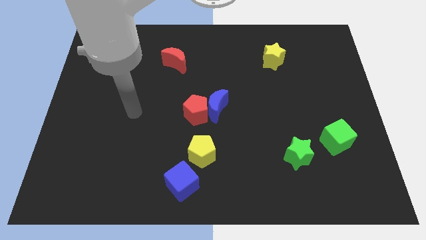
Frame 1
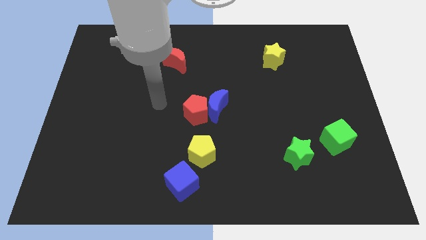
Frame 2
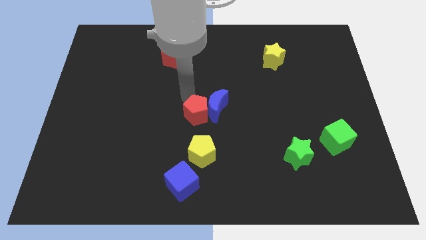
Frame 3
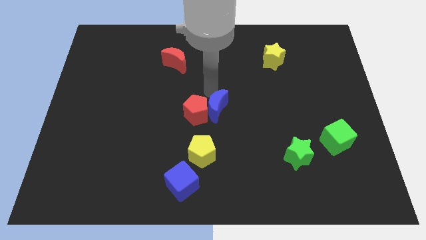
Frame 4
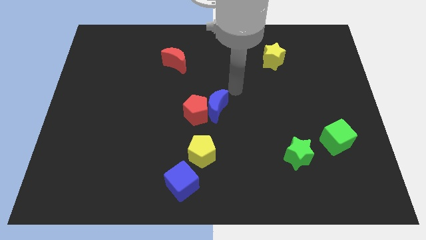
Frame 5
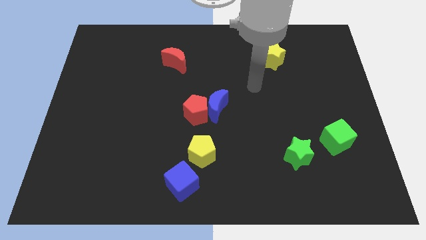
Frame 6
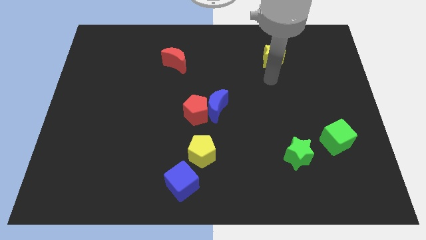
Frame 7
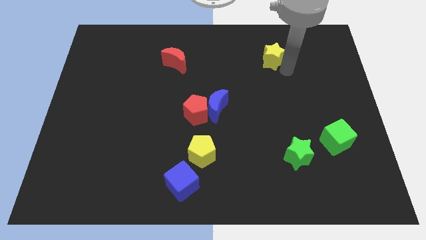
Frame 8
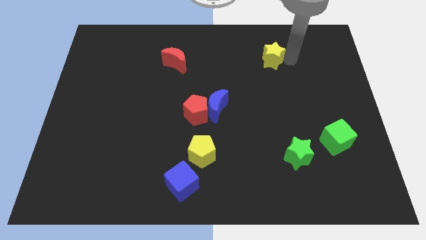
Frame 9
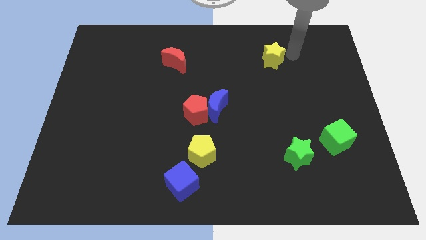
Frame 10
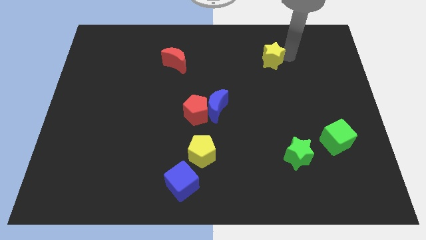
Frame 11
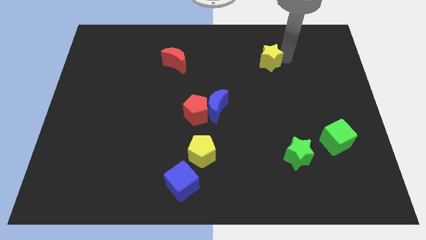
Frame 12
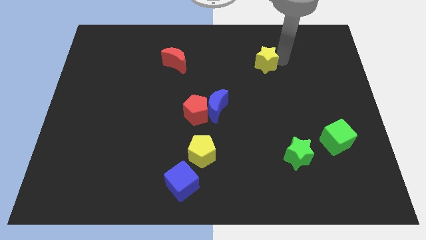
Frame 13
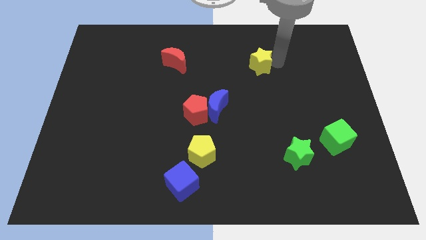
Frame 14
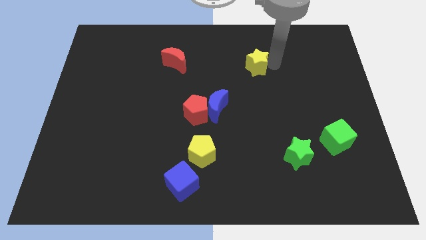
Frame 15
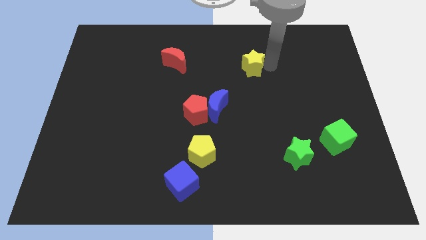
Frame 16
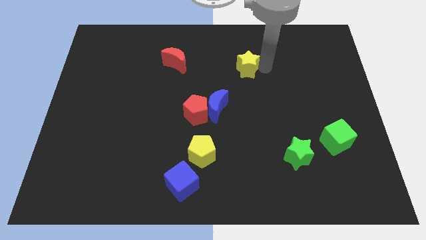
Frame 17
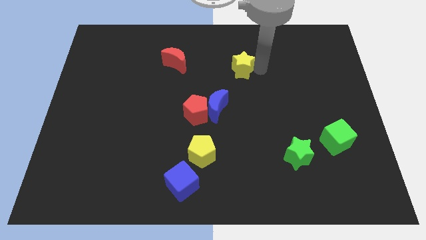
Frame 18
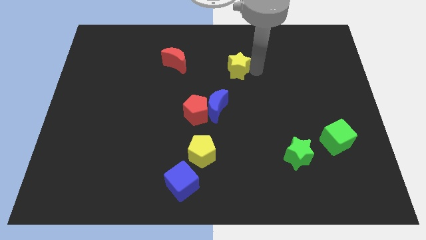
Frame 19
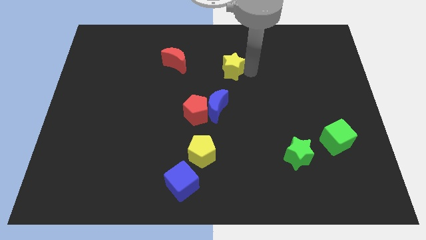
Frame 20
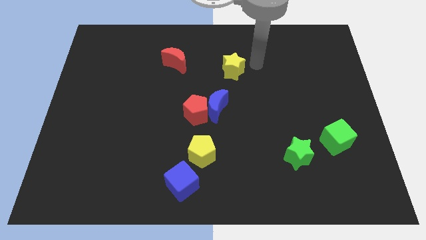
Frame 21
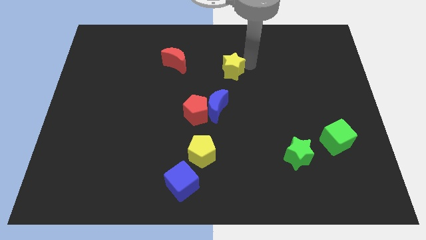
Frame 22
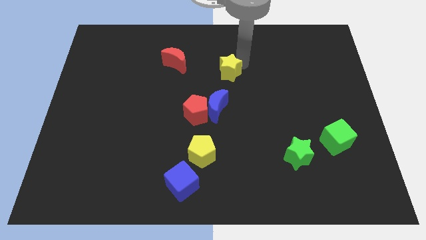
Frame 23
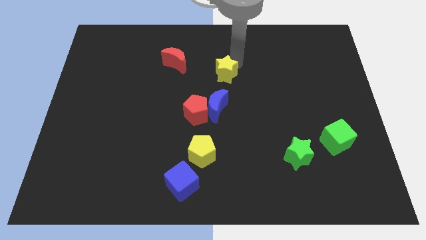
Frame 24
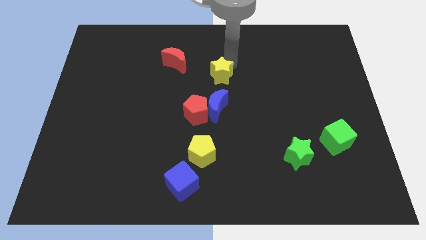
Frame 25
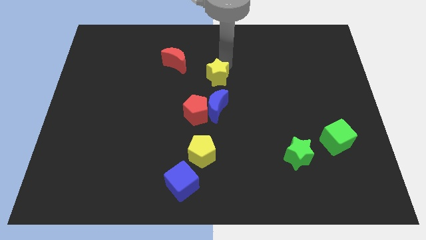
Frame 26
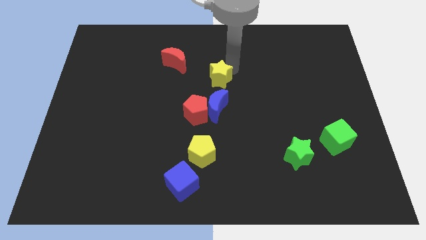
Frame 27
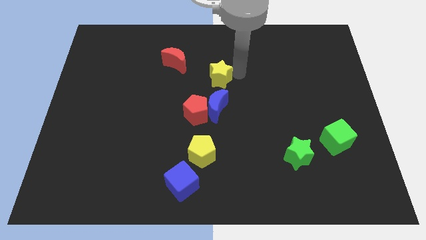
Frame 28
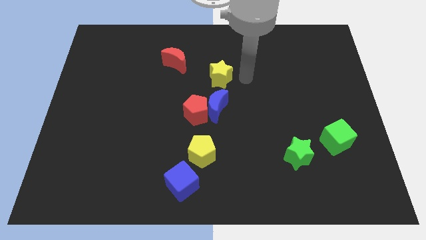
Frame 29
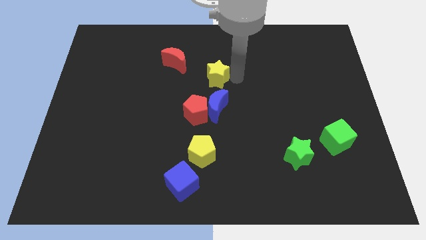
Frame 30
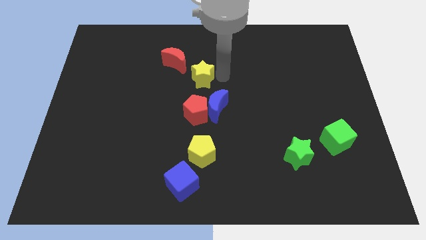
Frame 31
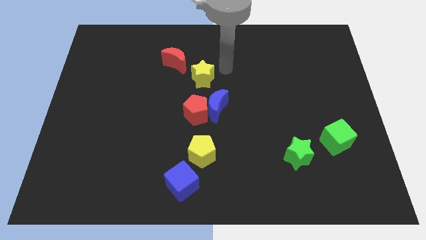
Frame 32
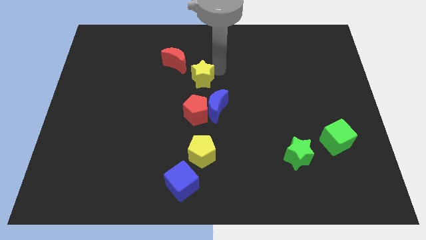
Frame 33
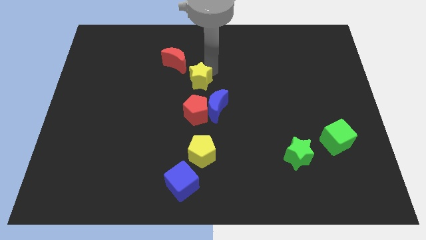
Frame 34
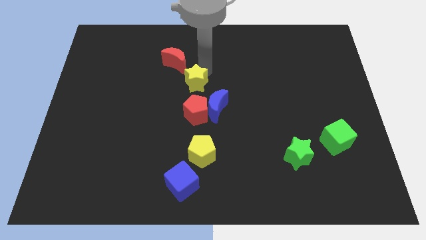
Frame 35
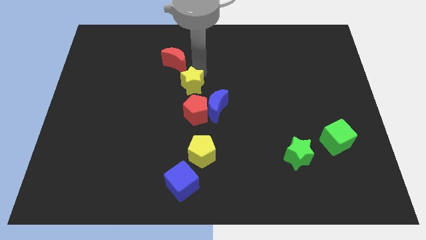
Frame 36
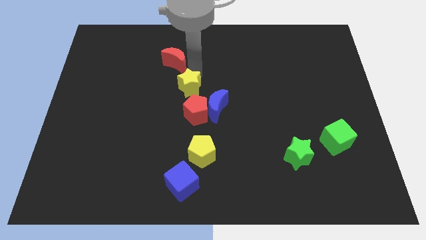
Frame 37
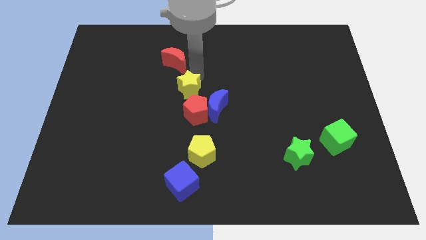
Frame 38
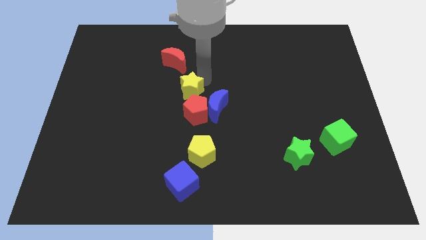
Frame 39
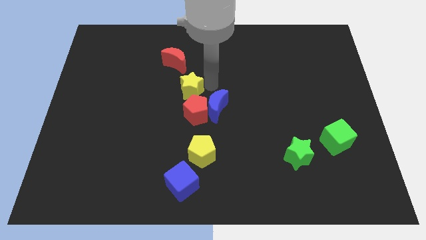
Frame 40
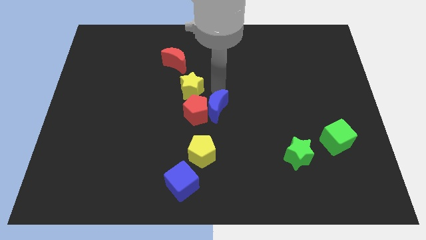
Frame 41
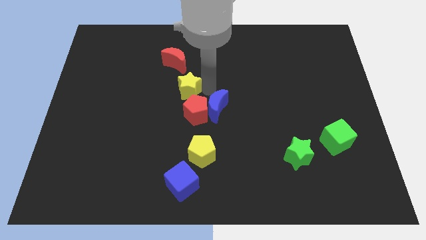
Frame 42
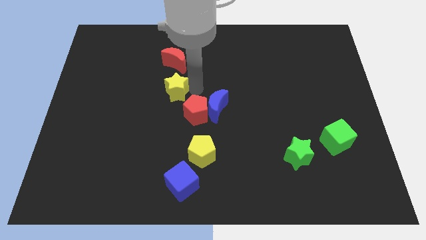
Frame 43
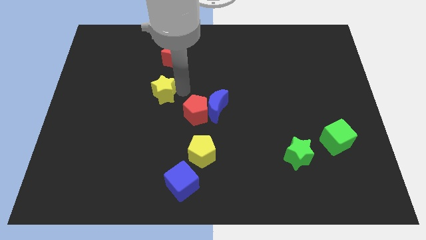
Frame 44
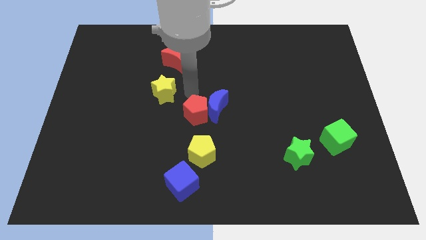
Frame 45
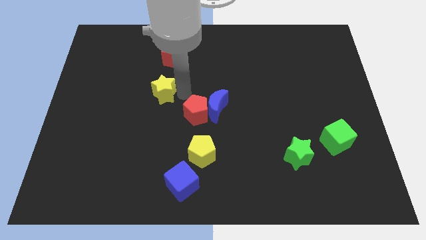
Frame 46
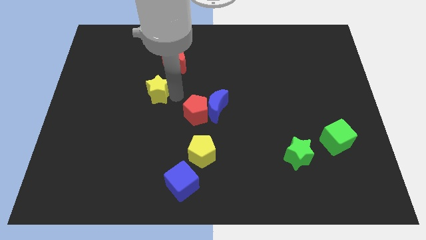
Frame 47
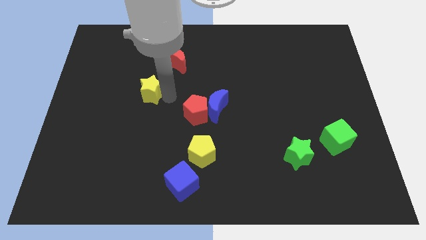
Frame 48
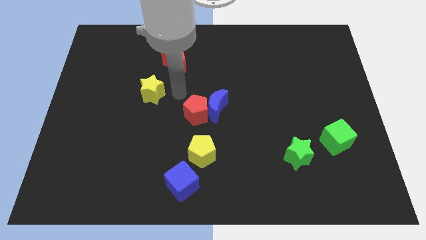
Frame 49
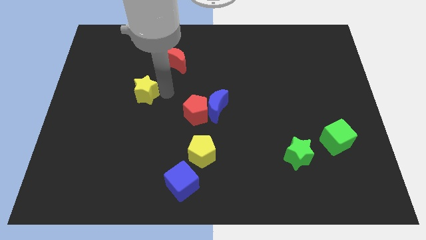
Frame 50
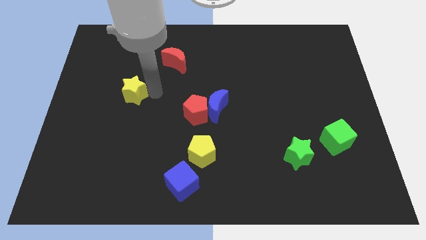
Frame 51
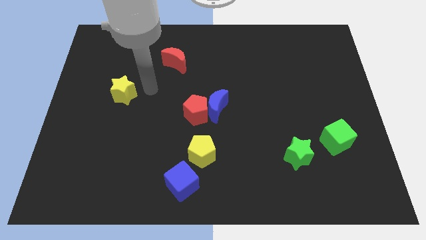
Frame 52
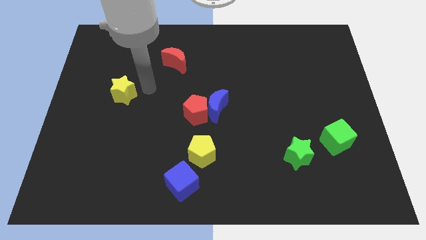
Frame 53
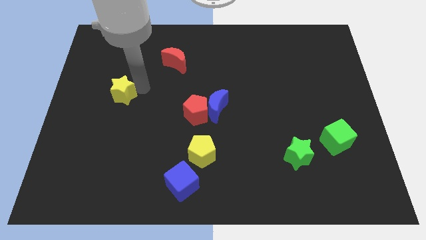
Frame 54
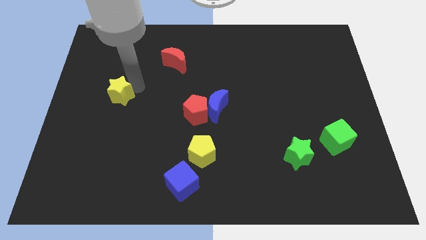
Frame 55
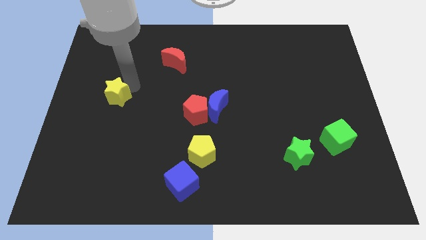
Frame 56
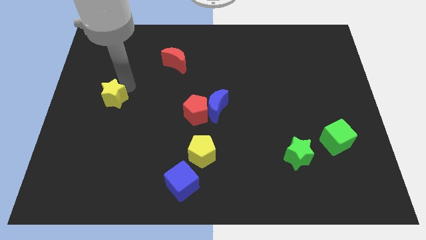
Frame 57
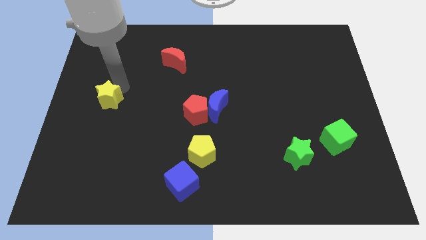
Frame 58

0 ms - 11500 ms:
slide the yellow star to the left side

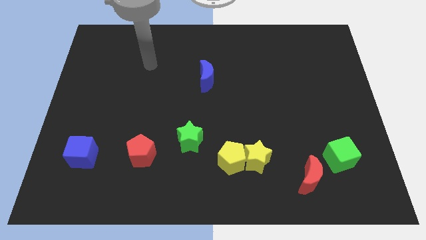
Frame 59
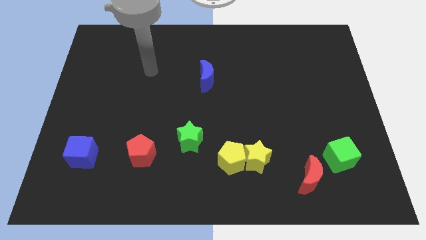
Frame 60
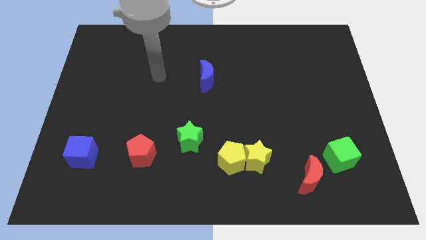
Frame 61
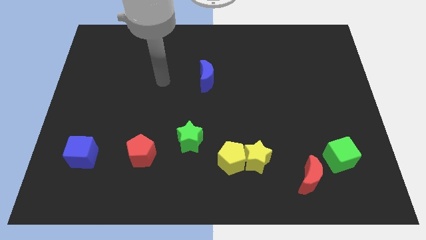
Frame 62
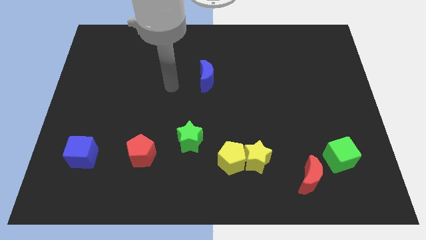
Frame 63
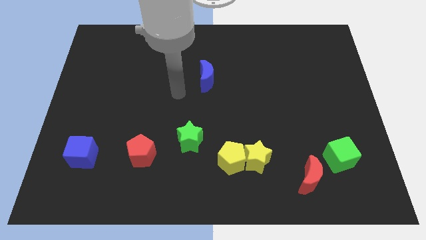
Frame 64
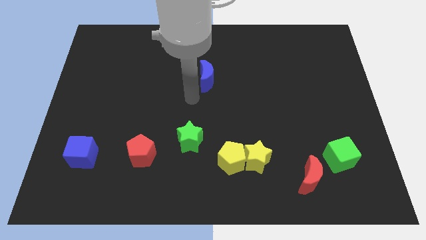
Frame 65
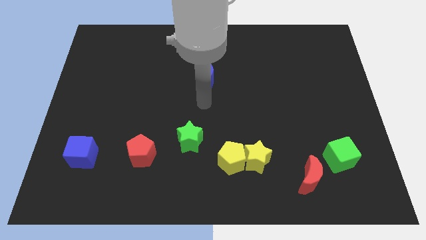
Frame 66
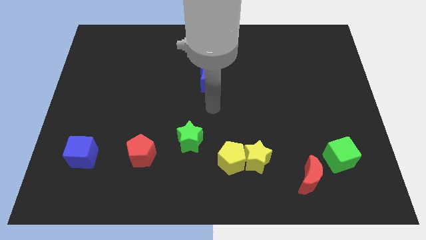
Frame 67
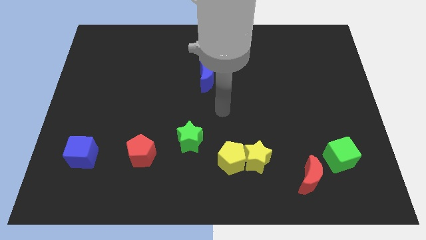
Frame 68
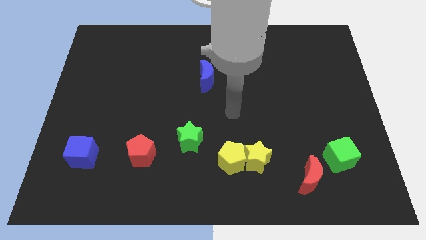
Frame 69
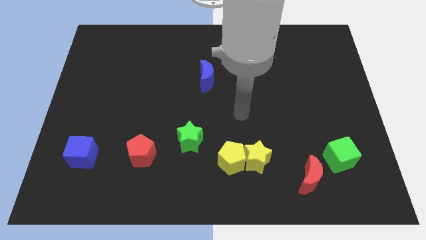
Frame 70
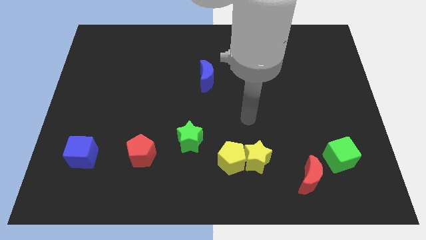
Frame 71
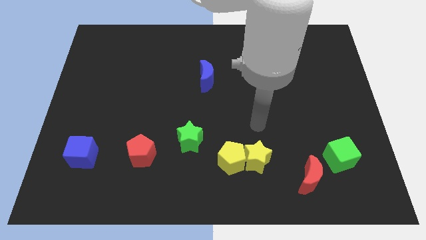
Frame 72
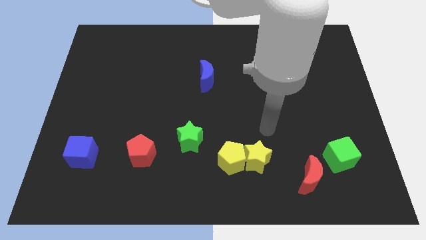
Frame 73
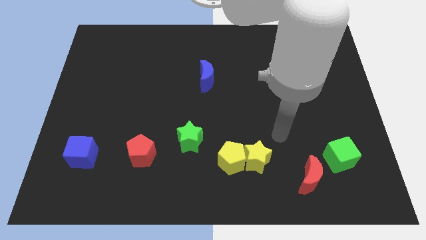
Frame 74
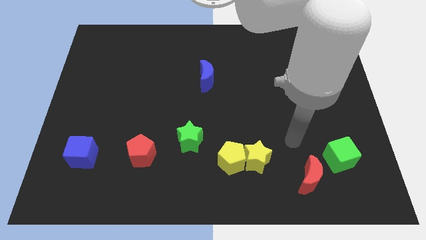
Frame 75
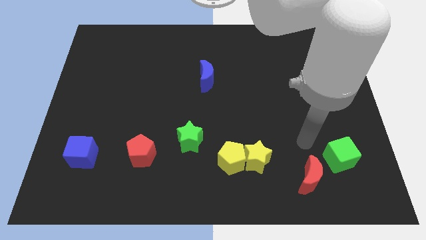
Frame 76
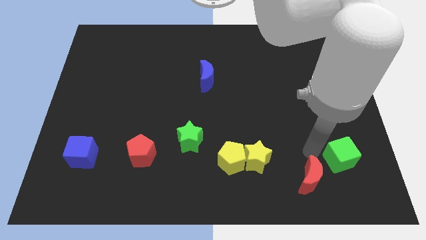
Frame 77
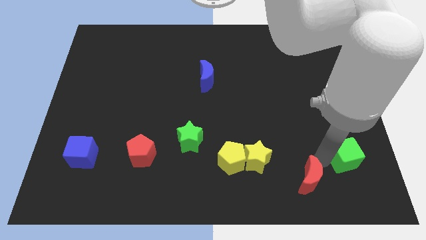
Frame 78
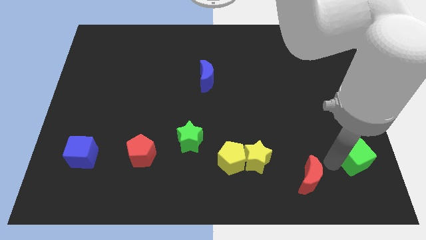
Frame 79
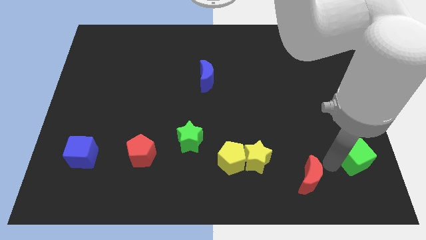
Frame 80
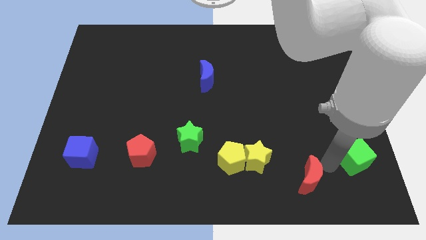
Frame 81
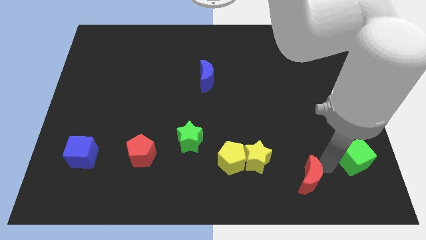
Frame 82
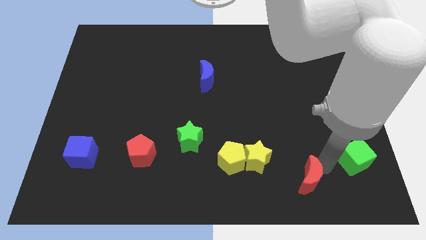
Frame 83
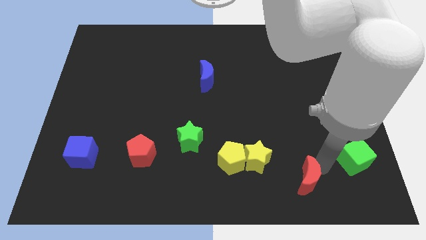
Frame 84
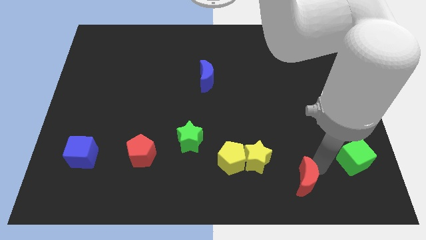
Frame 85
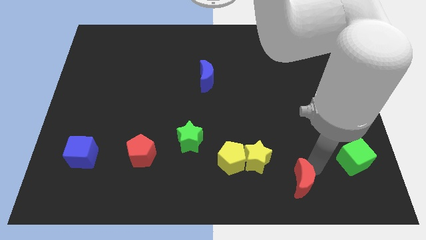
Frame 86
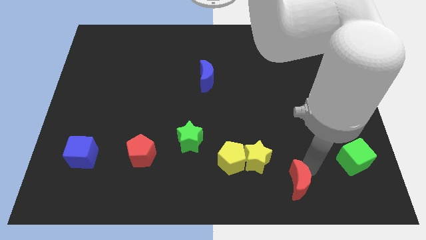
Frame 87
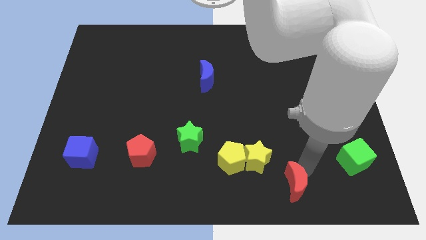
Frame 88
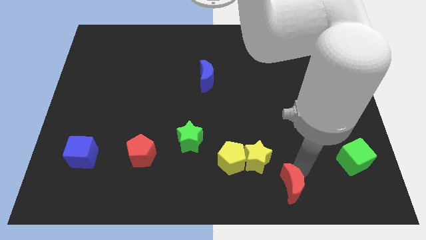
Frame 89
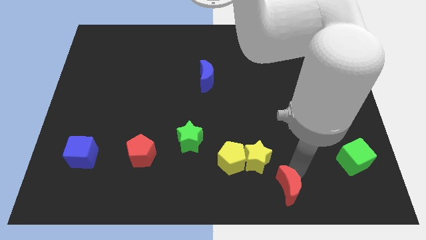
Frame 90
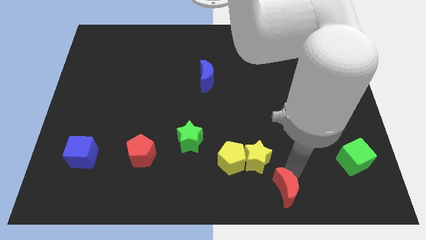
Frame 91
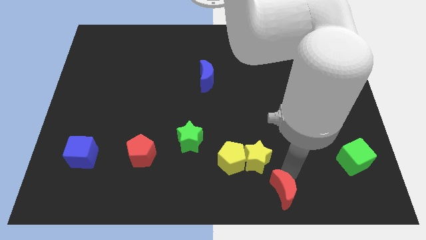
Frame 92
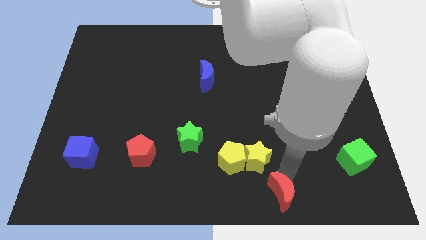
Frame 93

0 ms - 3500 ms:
push the red moon to the bottom side
